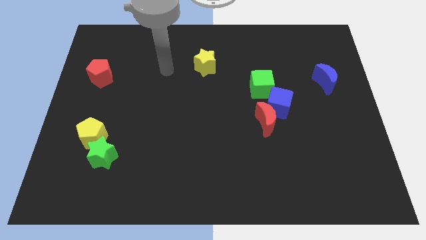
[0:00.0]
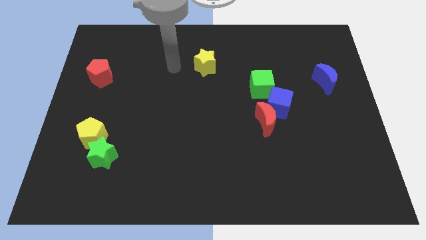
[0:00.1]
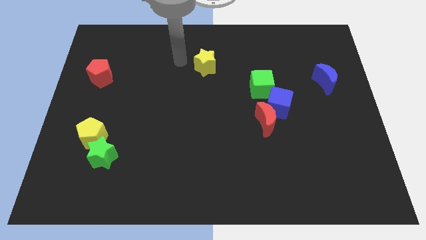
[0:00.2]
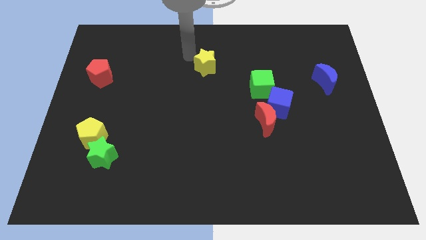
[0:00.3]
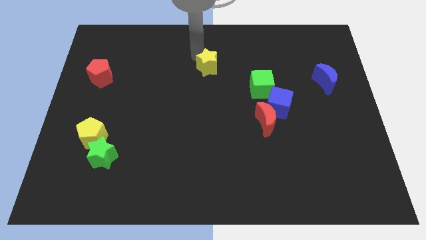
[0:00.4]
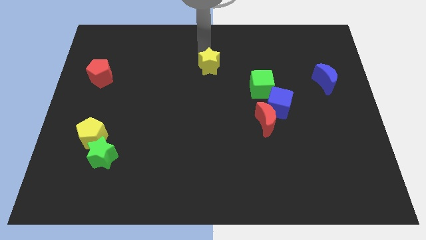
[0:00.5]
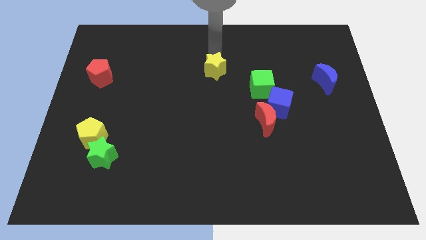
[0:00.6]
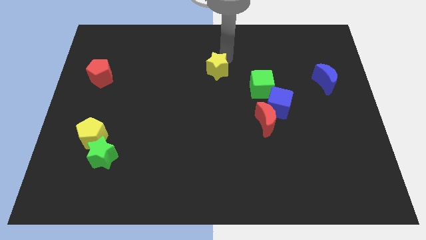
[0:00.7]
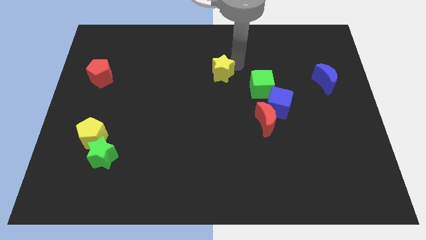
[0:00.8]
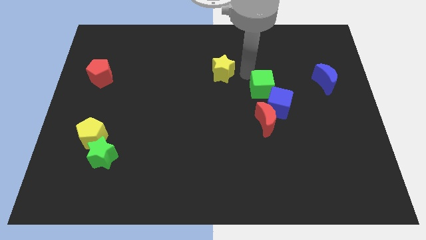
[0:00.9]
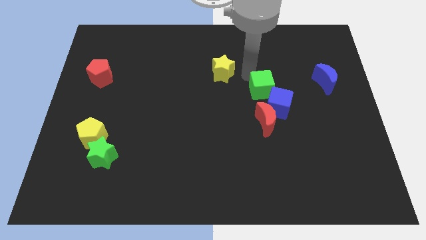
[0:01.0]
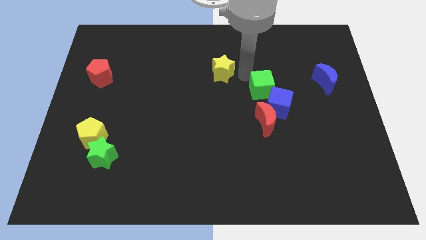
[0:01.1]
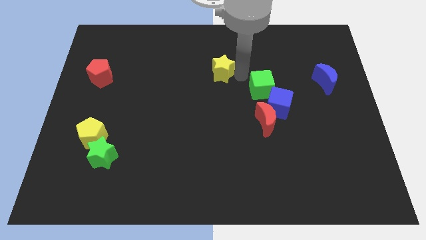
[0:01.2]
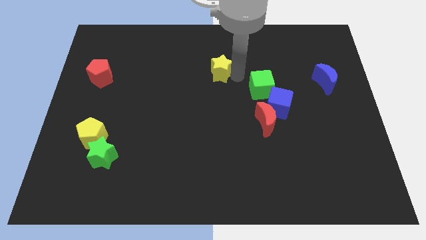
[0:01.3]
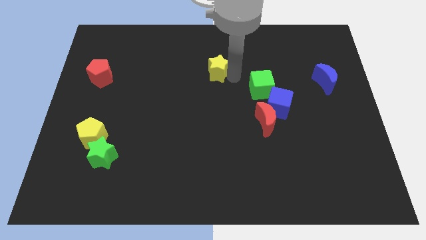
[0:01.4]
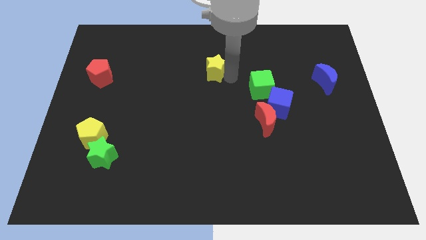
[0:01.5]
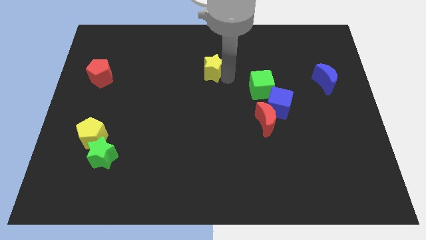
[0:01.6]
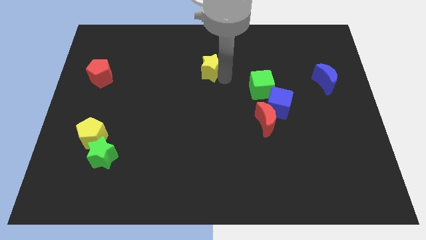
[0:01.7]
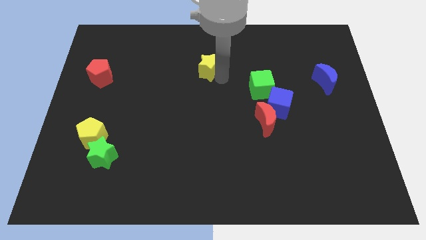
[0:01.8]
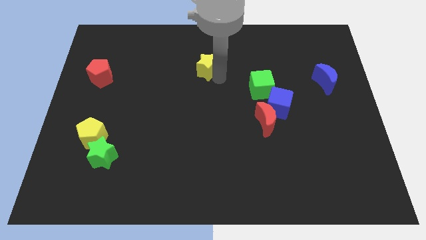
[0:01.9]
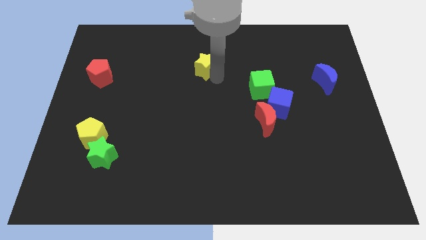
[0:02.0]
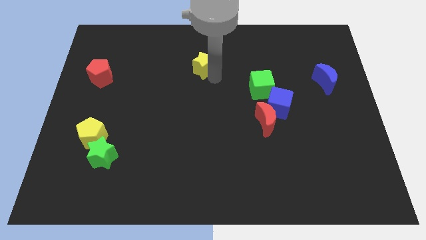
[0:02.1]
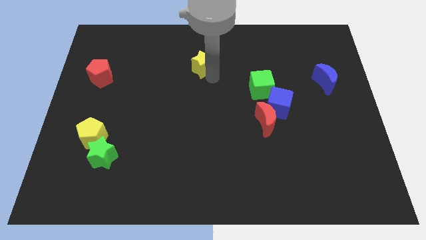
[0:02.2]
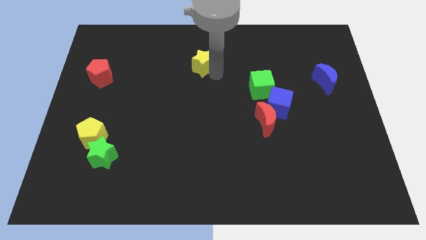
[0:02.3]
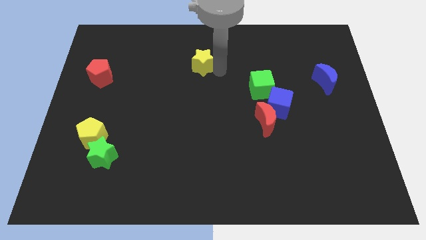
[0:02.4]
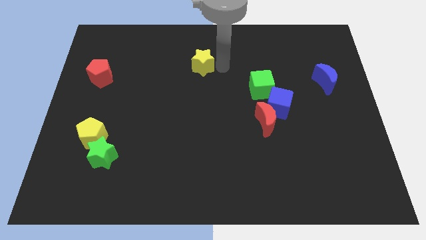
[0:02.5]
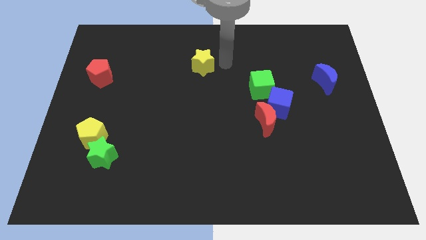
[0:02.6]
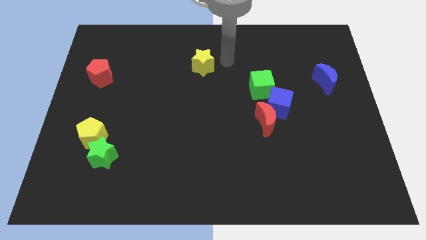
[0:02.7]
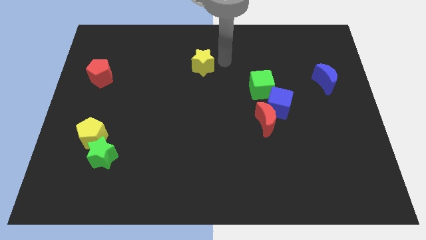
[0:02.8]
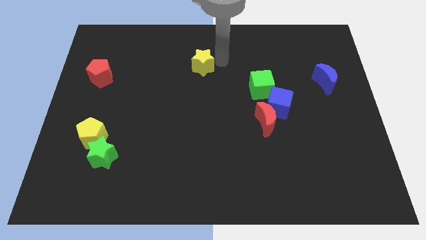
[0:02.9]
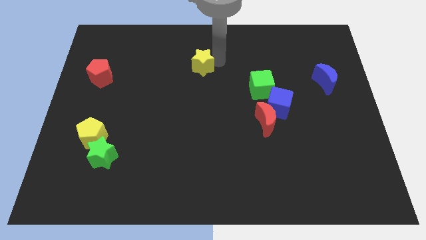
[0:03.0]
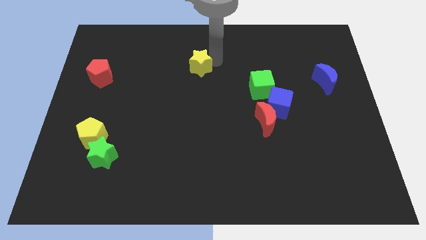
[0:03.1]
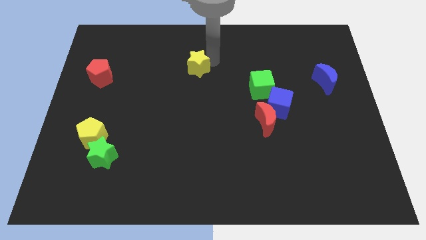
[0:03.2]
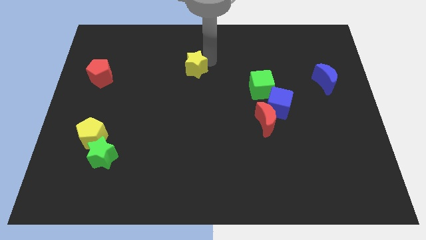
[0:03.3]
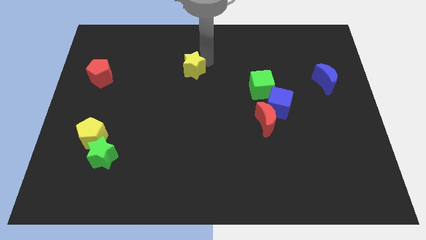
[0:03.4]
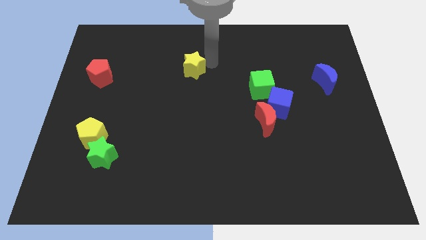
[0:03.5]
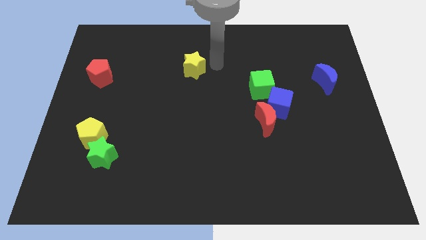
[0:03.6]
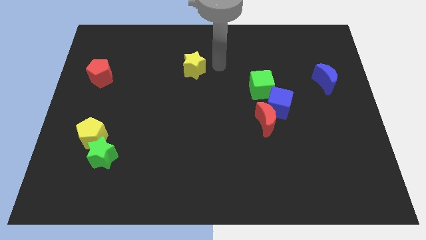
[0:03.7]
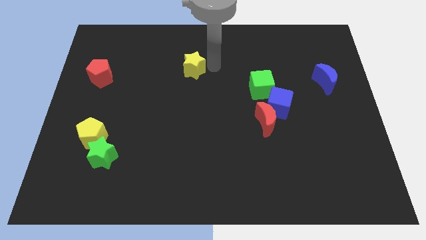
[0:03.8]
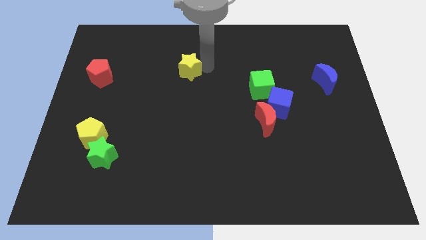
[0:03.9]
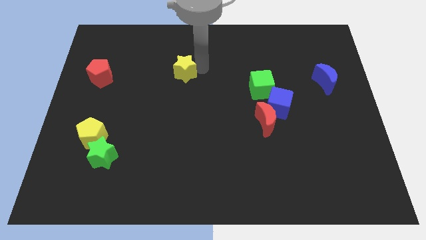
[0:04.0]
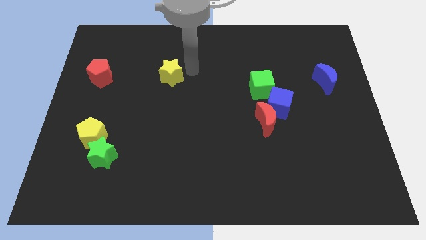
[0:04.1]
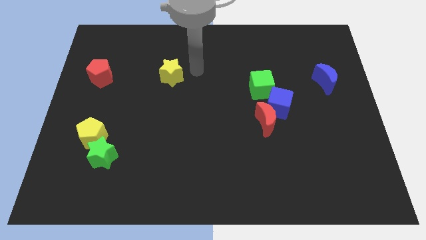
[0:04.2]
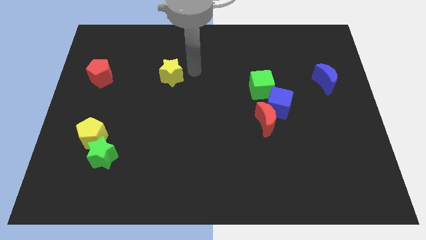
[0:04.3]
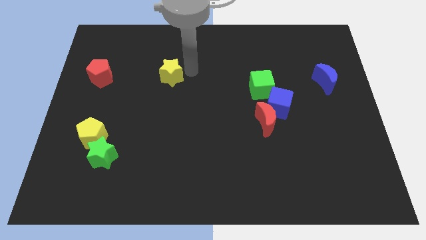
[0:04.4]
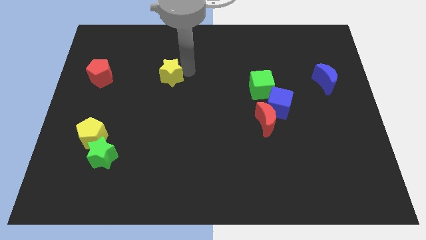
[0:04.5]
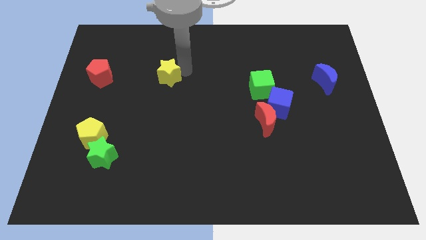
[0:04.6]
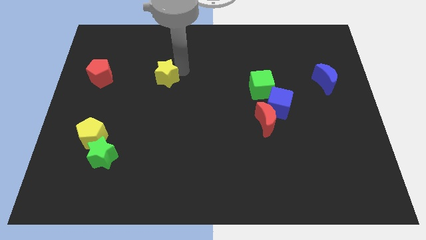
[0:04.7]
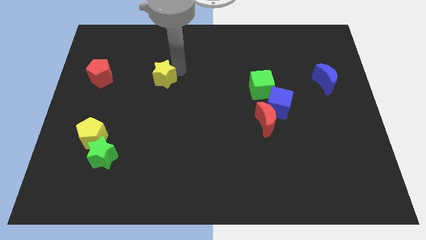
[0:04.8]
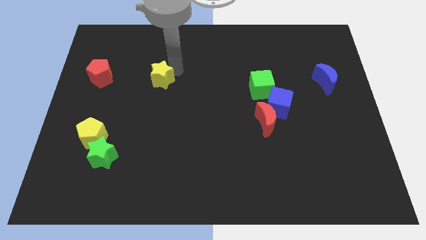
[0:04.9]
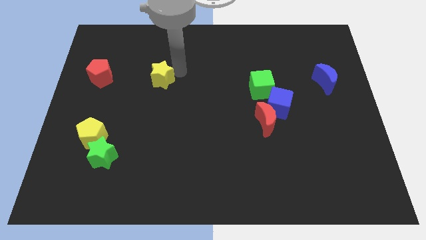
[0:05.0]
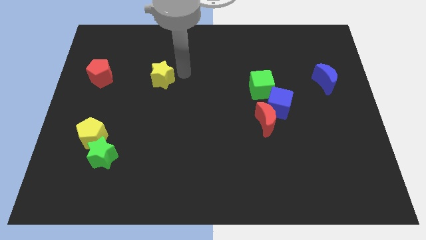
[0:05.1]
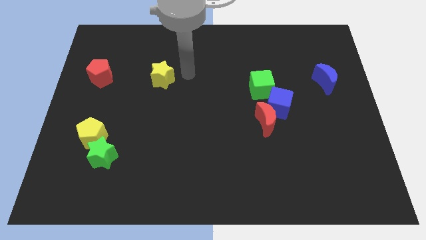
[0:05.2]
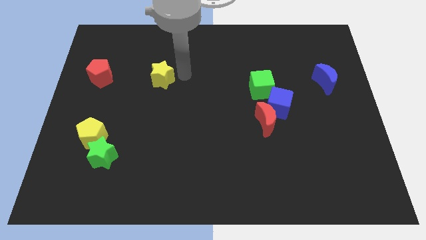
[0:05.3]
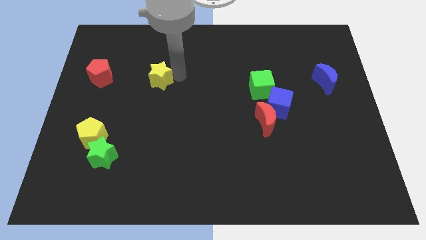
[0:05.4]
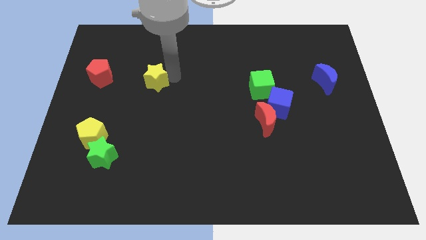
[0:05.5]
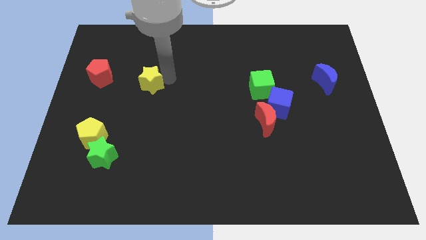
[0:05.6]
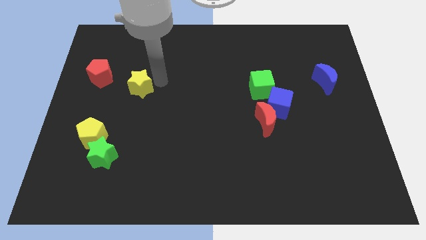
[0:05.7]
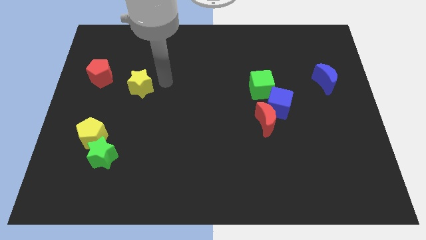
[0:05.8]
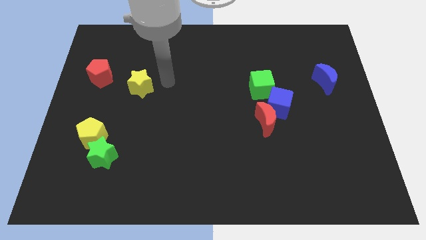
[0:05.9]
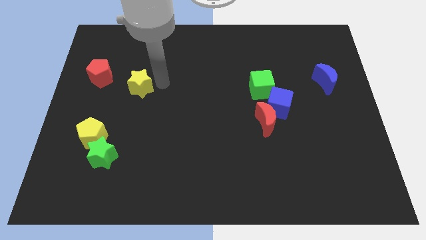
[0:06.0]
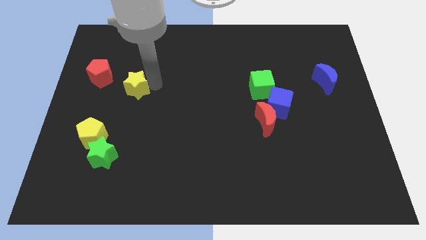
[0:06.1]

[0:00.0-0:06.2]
move the yellow star to the bottom right of the red pentagon
